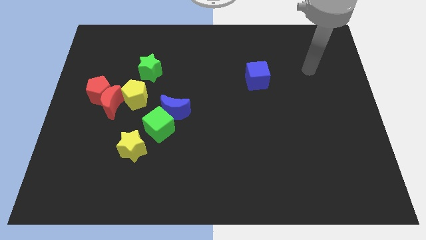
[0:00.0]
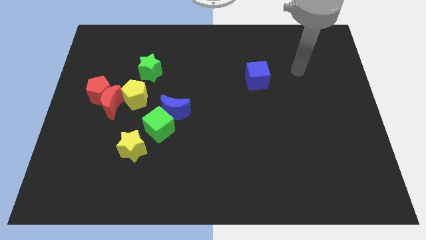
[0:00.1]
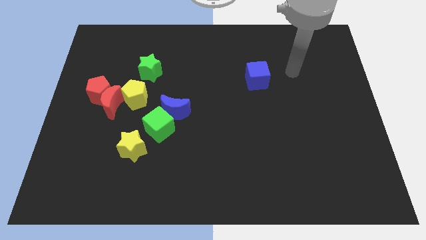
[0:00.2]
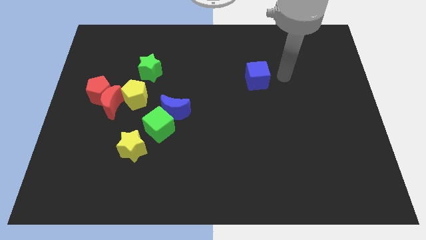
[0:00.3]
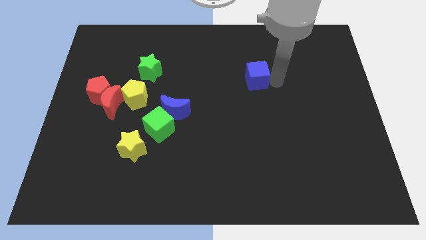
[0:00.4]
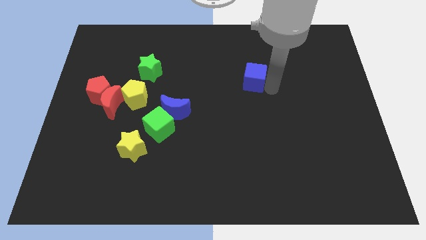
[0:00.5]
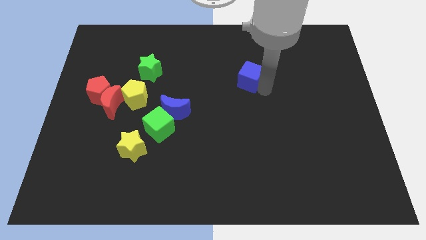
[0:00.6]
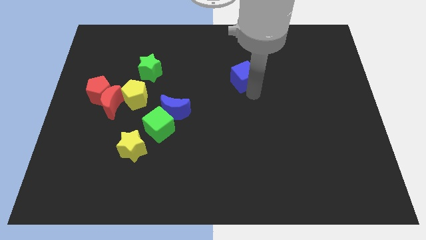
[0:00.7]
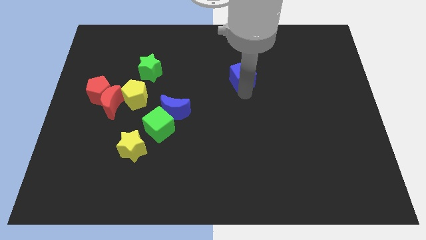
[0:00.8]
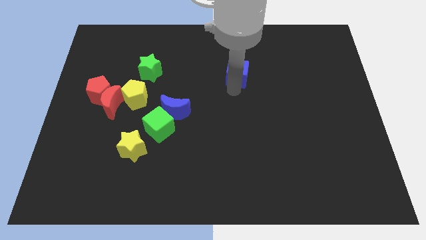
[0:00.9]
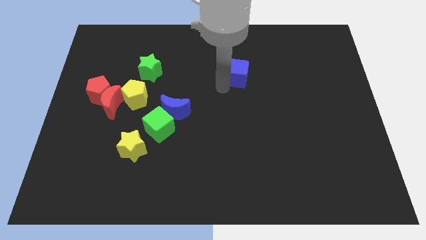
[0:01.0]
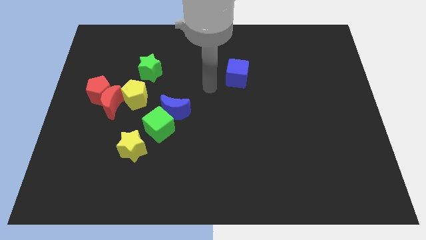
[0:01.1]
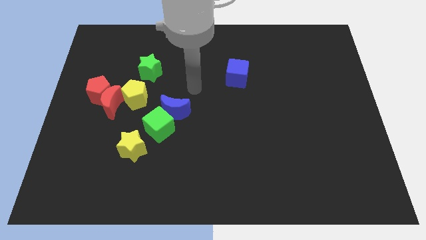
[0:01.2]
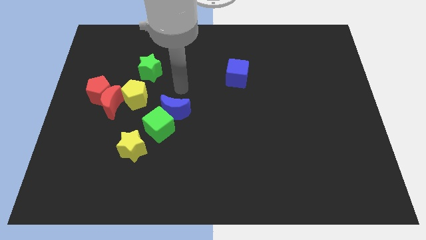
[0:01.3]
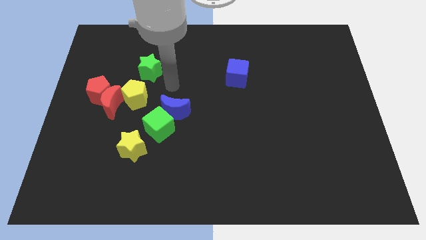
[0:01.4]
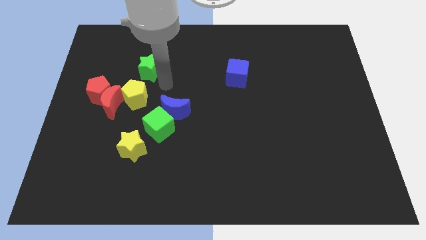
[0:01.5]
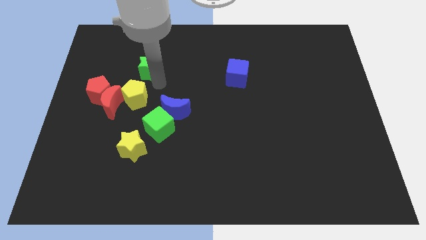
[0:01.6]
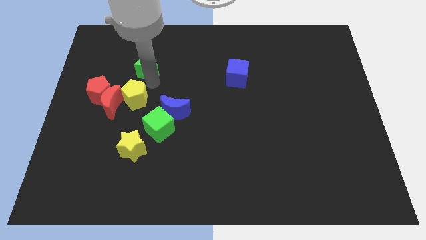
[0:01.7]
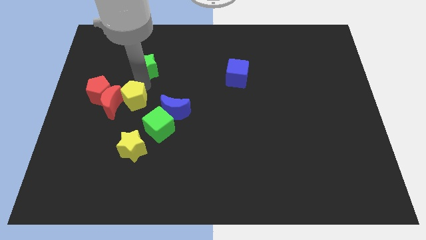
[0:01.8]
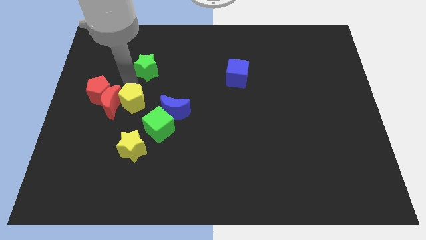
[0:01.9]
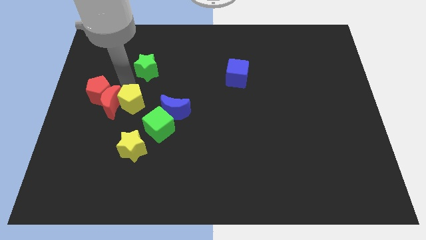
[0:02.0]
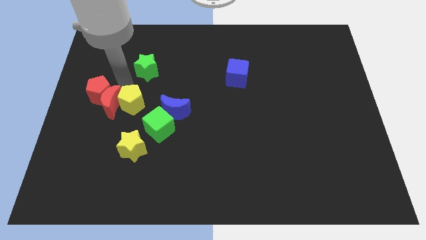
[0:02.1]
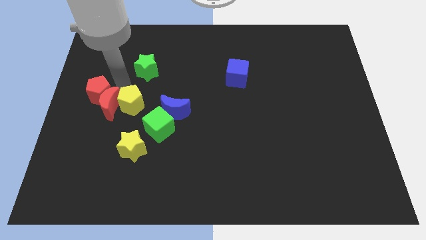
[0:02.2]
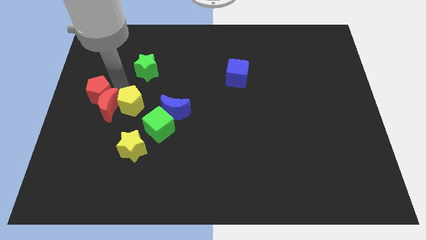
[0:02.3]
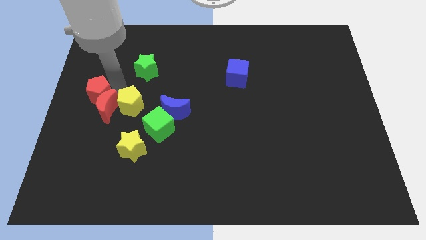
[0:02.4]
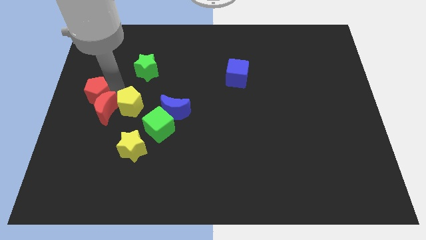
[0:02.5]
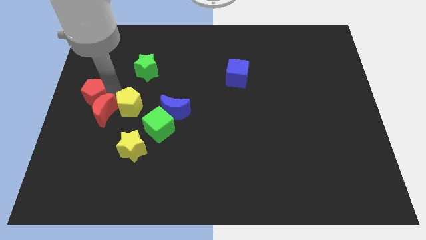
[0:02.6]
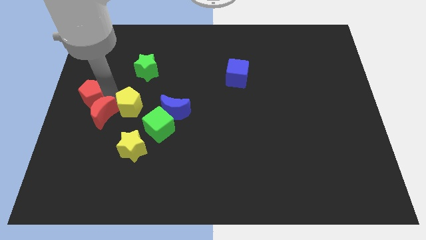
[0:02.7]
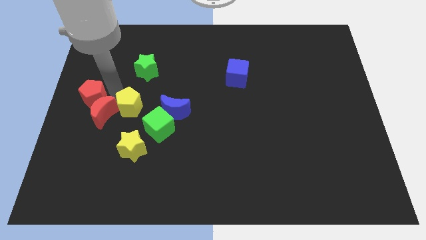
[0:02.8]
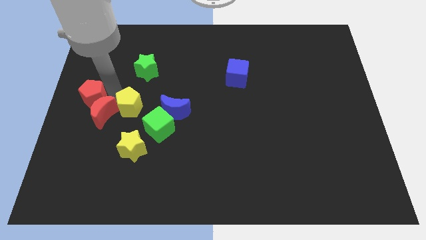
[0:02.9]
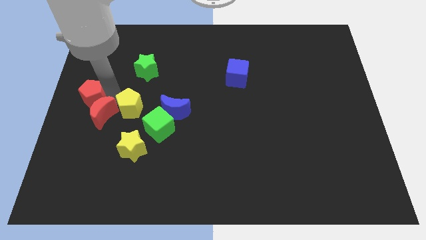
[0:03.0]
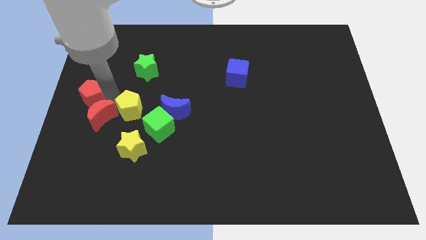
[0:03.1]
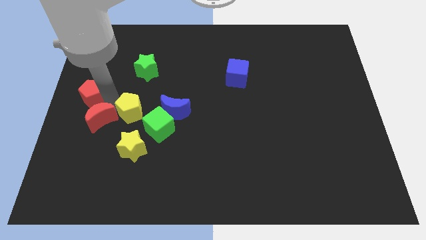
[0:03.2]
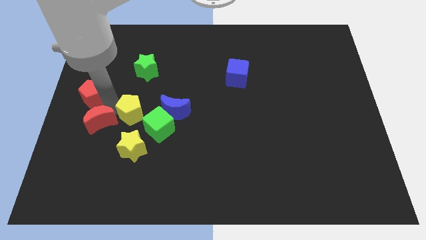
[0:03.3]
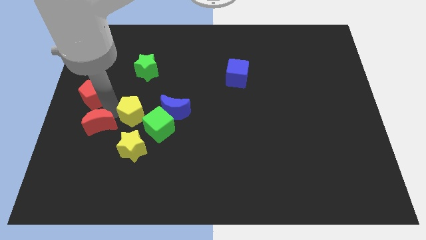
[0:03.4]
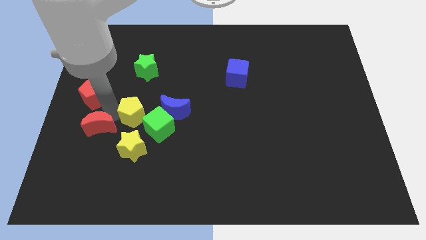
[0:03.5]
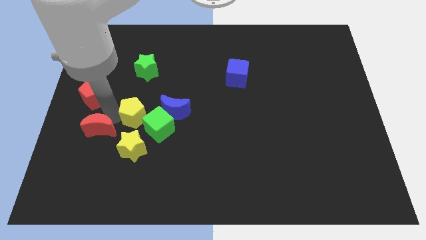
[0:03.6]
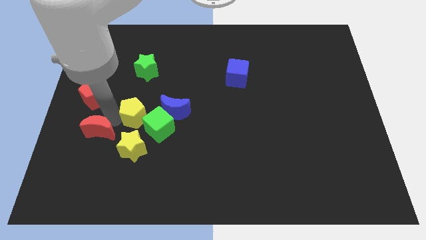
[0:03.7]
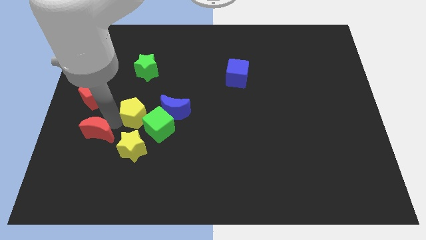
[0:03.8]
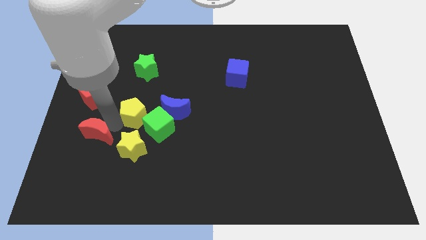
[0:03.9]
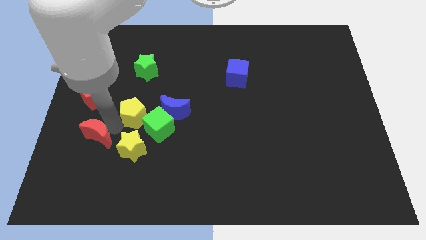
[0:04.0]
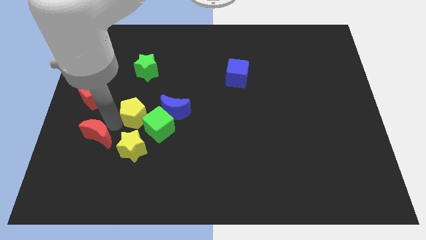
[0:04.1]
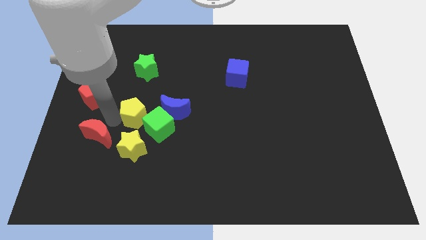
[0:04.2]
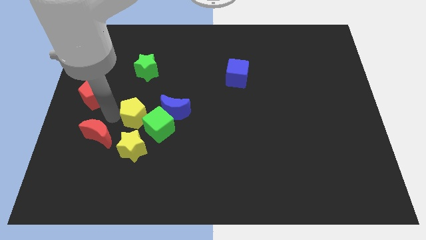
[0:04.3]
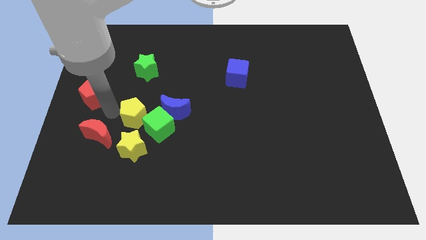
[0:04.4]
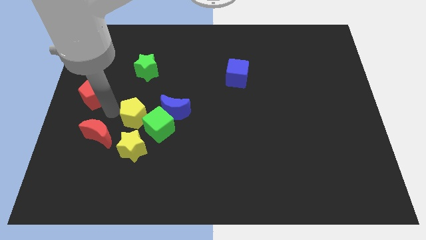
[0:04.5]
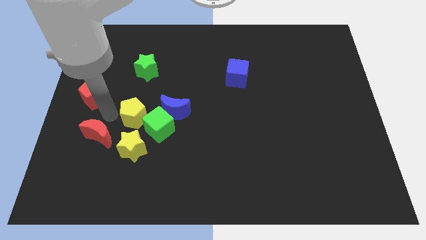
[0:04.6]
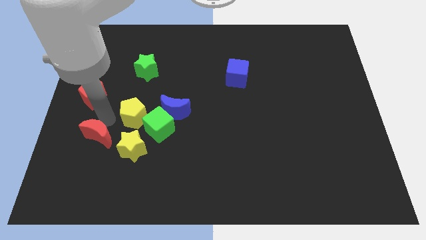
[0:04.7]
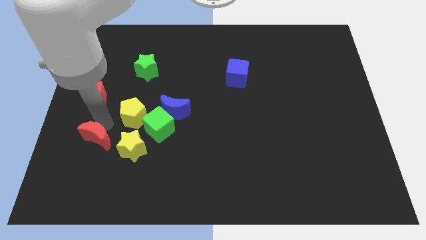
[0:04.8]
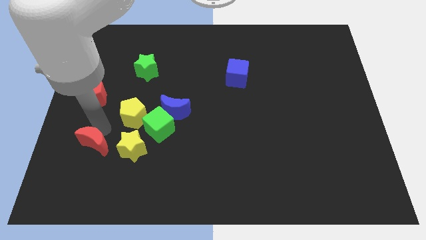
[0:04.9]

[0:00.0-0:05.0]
move the red moon away from the red pentagon and yellow pentagon

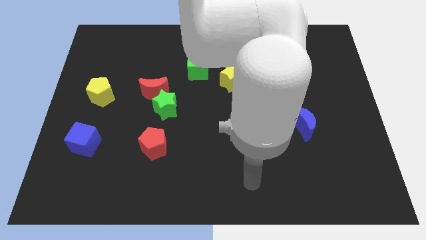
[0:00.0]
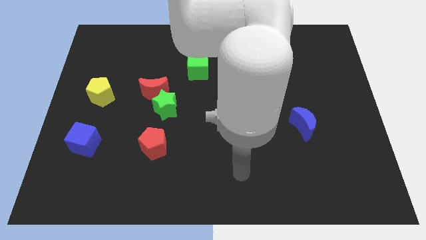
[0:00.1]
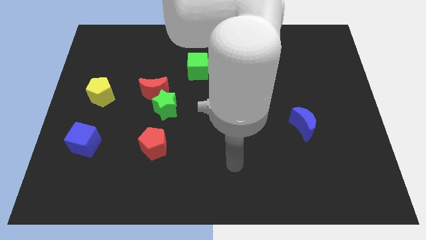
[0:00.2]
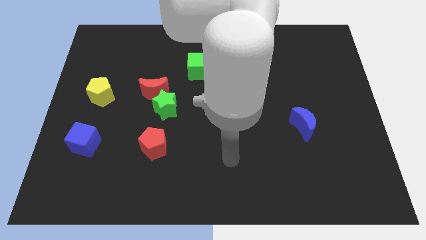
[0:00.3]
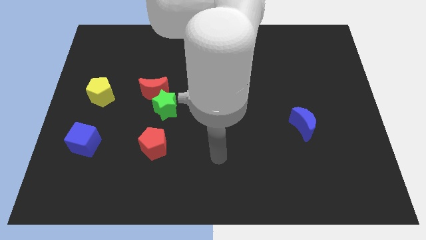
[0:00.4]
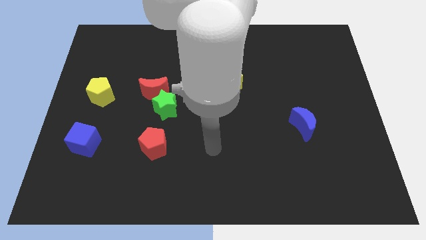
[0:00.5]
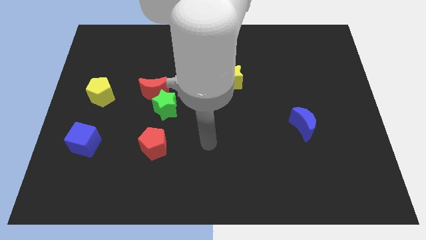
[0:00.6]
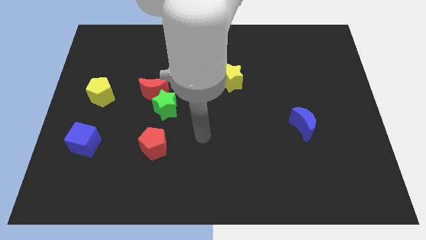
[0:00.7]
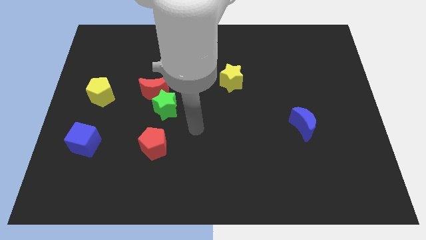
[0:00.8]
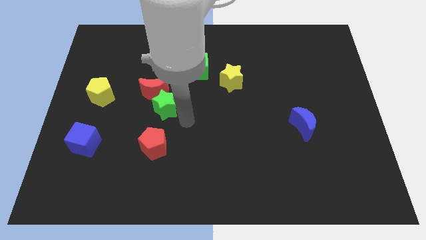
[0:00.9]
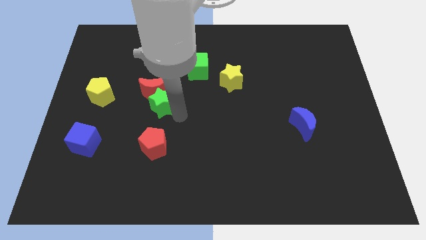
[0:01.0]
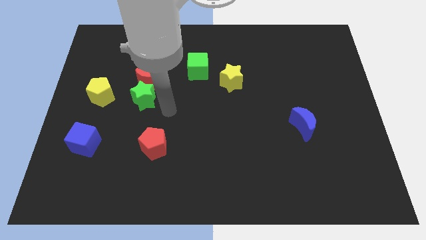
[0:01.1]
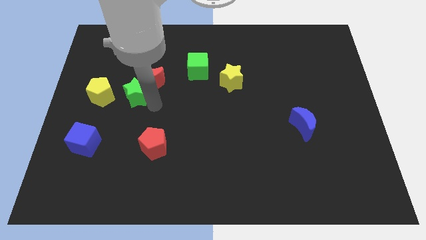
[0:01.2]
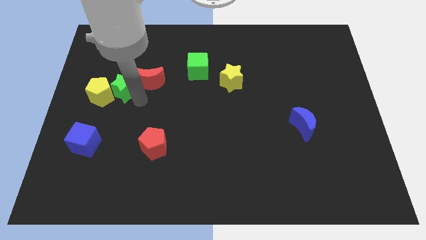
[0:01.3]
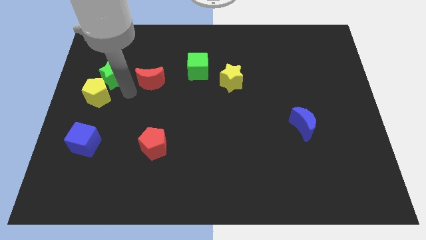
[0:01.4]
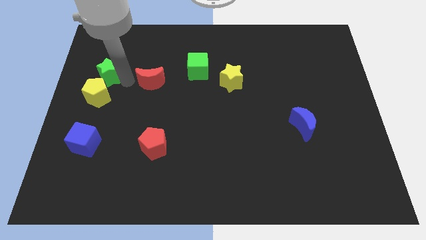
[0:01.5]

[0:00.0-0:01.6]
separate the red moon from the green star

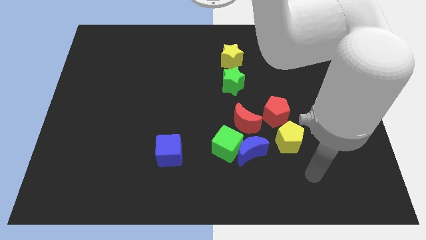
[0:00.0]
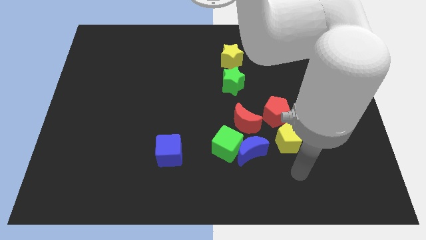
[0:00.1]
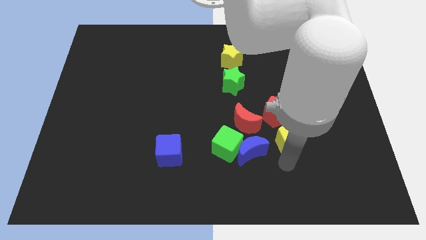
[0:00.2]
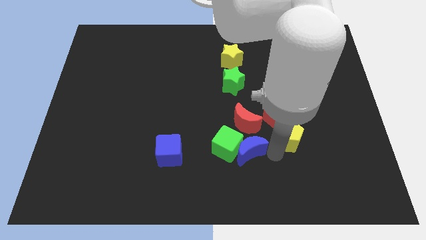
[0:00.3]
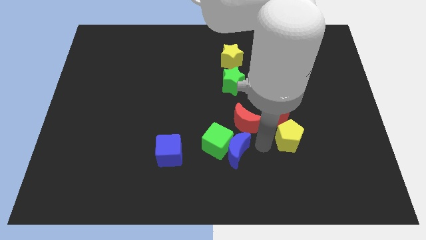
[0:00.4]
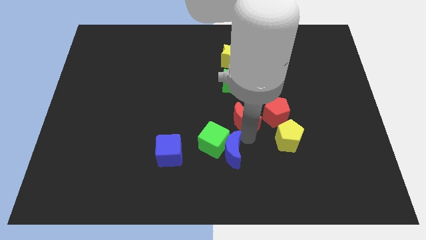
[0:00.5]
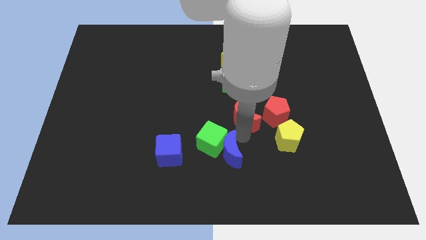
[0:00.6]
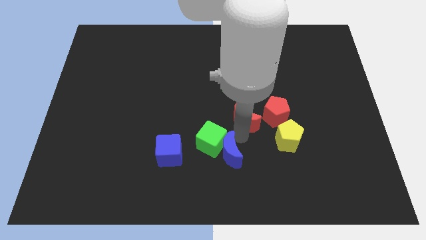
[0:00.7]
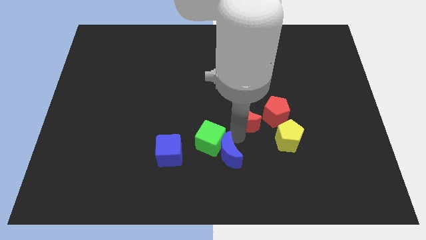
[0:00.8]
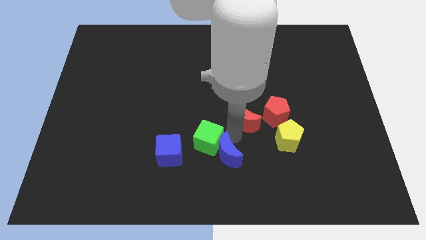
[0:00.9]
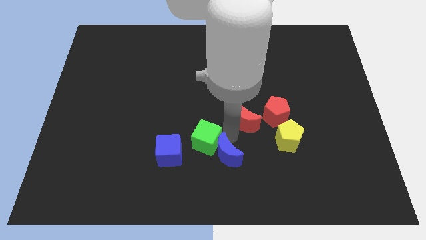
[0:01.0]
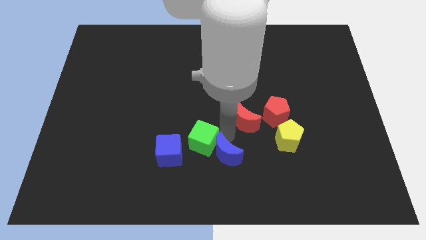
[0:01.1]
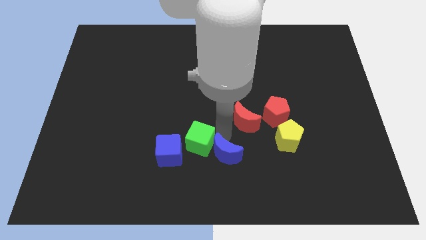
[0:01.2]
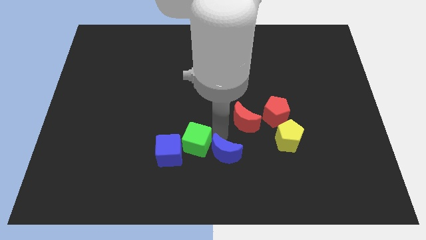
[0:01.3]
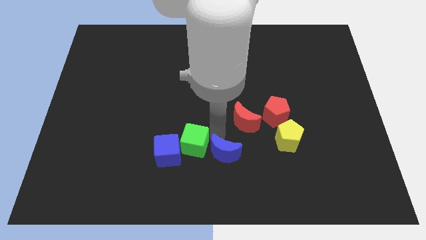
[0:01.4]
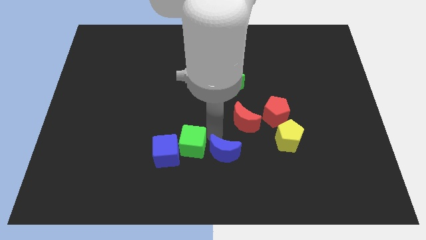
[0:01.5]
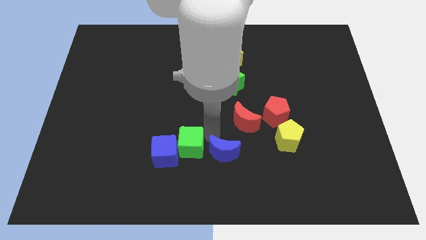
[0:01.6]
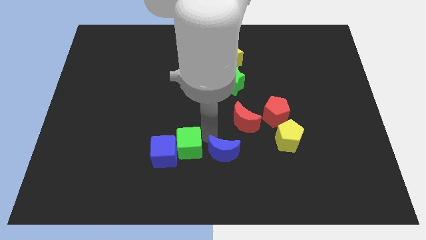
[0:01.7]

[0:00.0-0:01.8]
pull the green cube apart from the blue moon and red moon

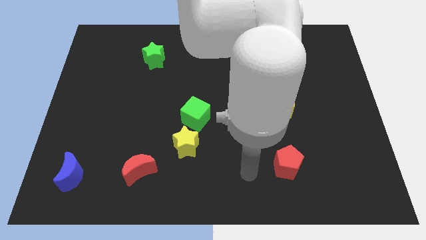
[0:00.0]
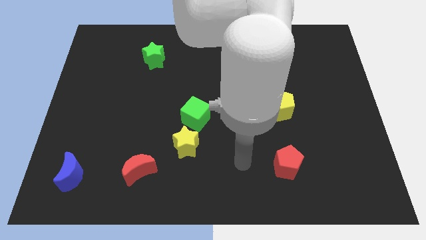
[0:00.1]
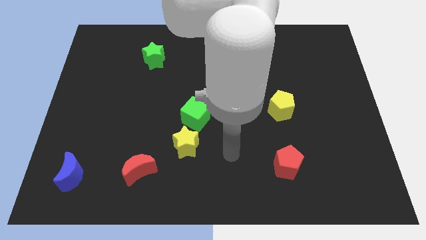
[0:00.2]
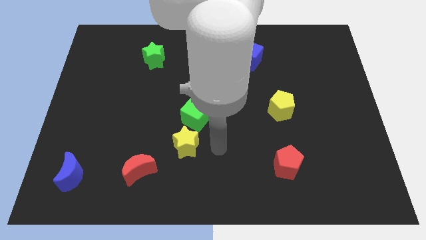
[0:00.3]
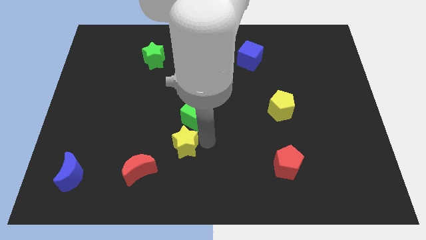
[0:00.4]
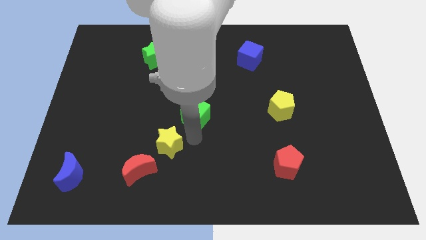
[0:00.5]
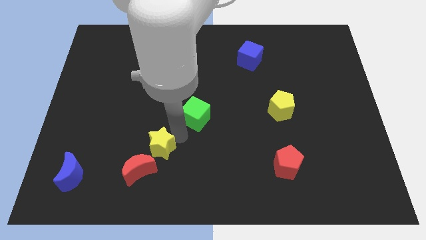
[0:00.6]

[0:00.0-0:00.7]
move the green cube away from the yellow star

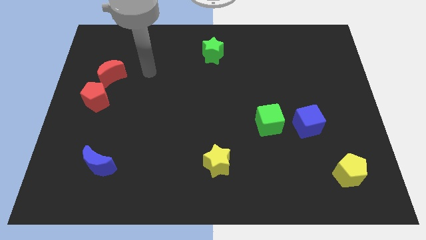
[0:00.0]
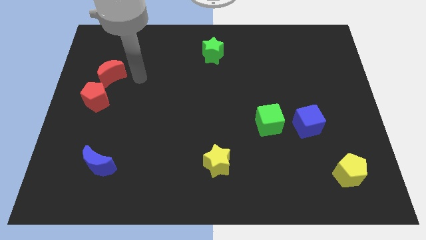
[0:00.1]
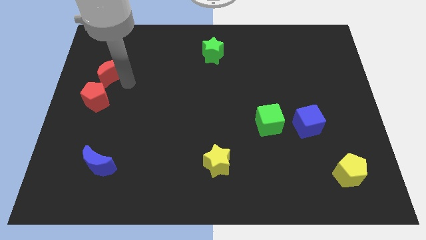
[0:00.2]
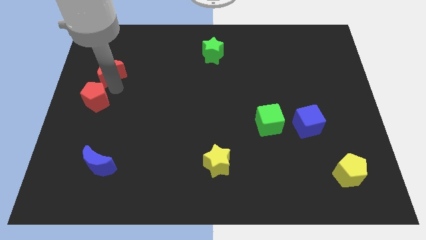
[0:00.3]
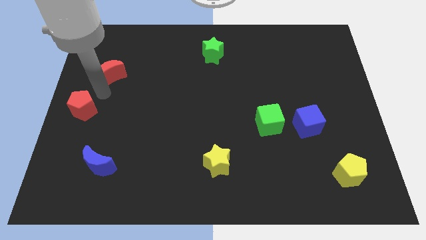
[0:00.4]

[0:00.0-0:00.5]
separate the red moon from the red pentagon
